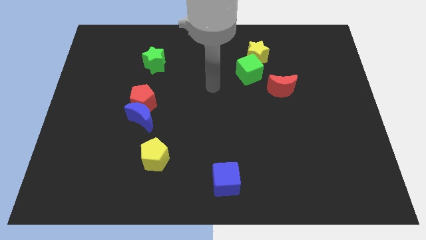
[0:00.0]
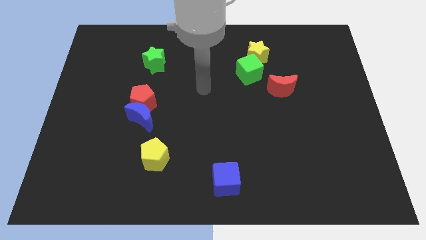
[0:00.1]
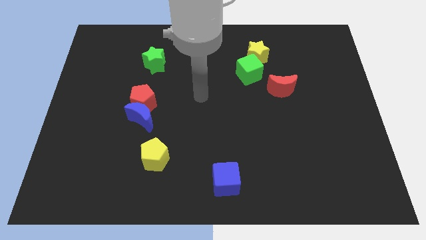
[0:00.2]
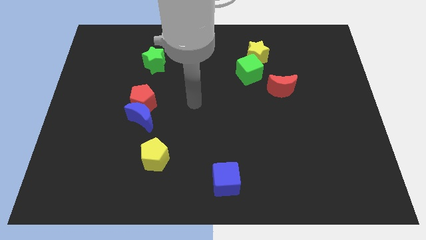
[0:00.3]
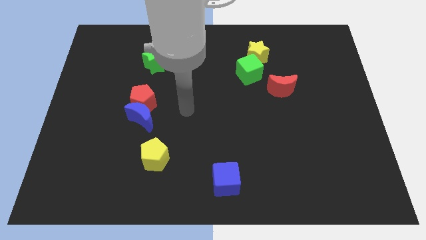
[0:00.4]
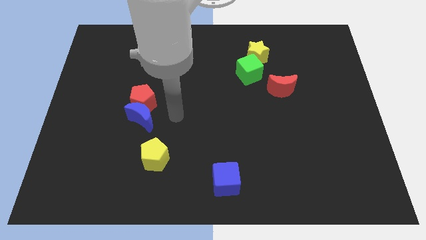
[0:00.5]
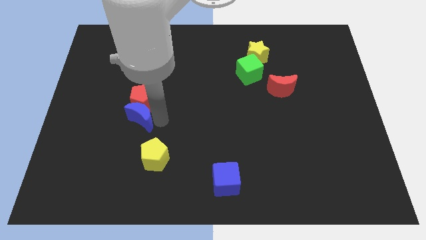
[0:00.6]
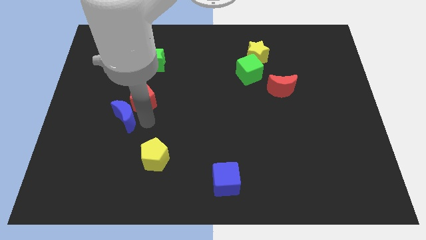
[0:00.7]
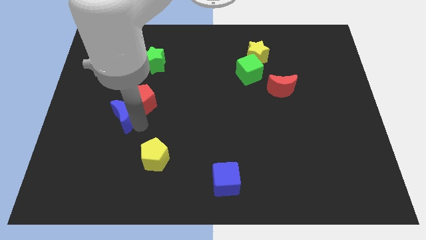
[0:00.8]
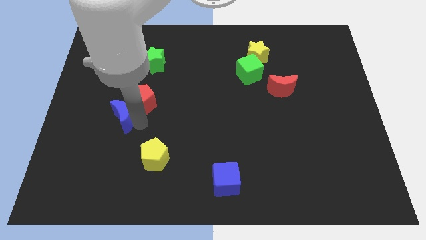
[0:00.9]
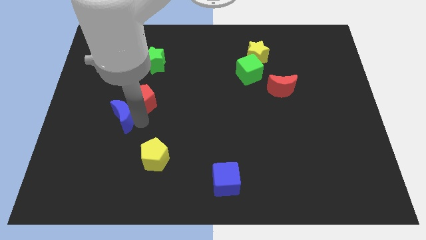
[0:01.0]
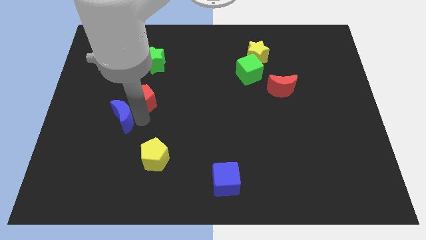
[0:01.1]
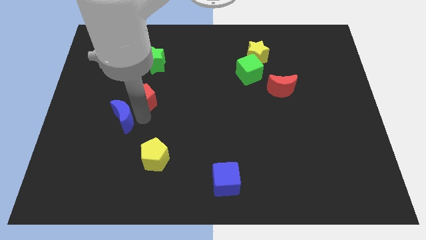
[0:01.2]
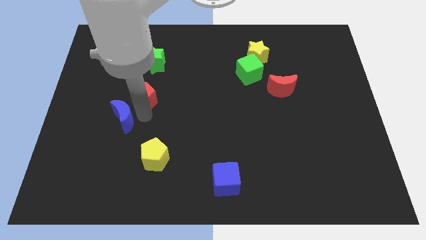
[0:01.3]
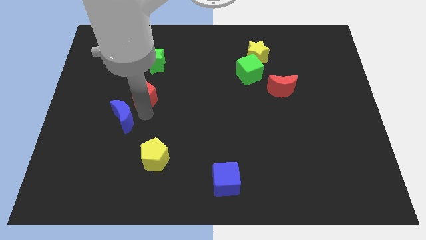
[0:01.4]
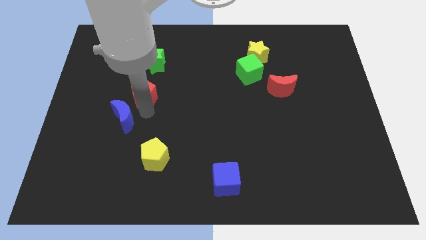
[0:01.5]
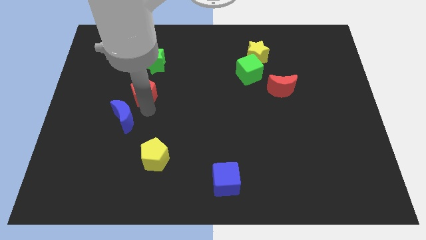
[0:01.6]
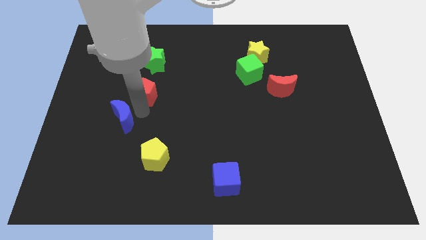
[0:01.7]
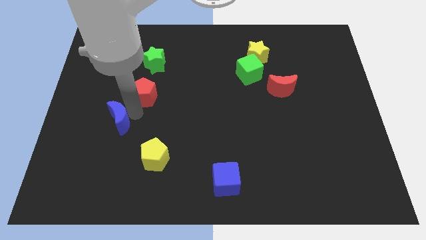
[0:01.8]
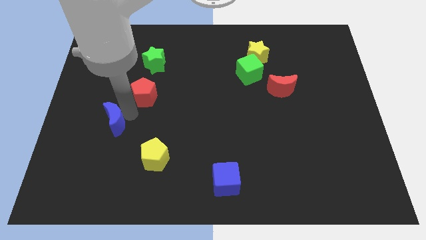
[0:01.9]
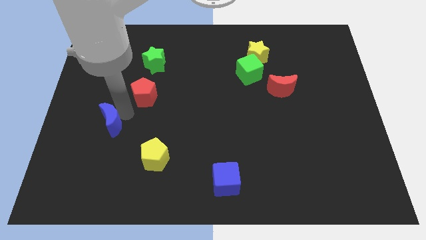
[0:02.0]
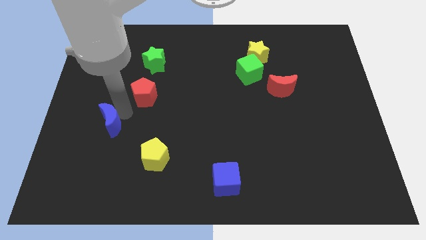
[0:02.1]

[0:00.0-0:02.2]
separate the red pentagon from the blue moon

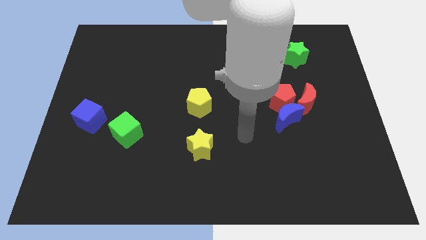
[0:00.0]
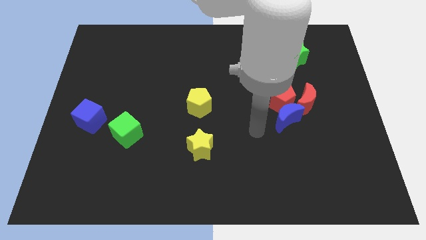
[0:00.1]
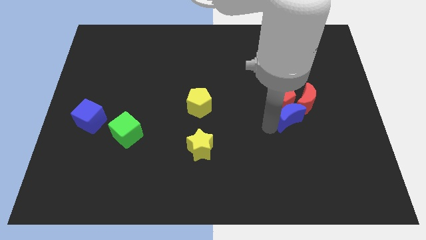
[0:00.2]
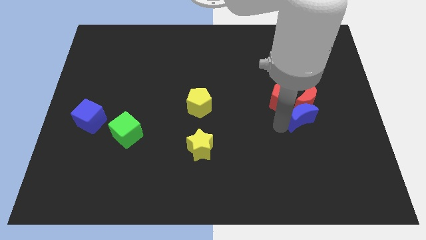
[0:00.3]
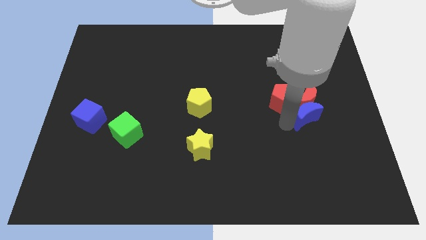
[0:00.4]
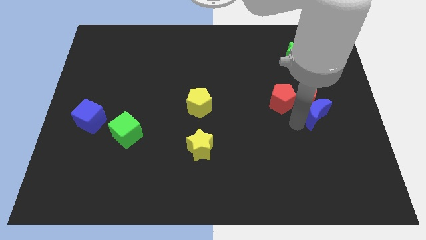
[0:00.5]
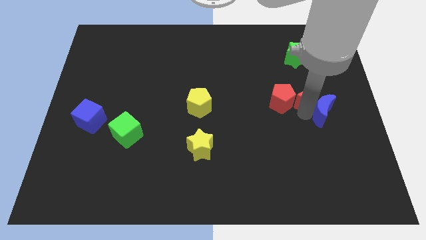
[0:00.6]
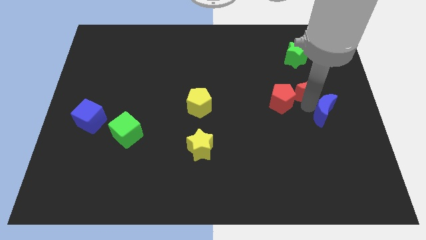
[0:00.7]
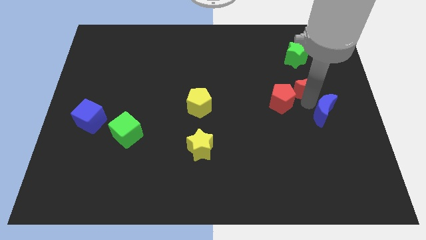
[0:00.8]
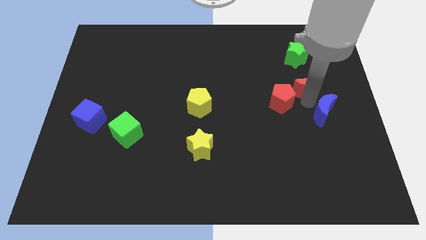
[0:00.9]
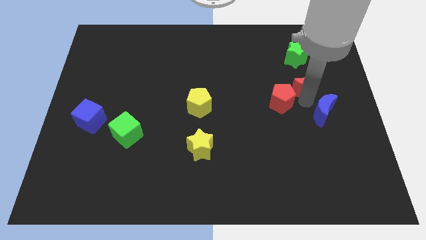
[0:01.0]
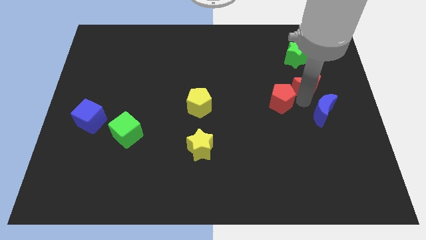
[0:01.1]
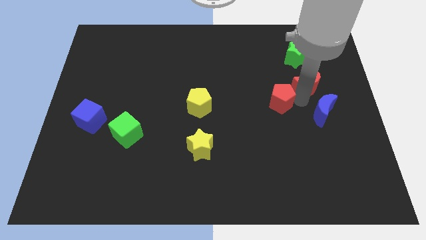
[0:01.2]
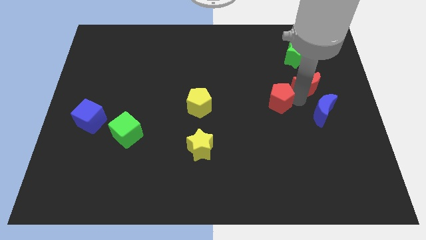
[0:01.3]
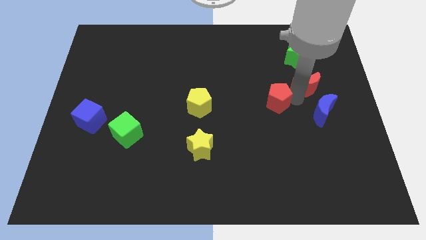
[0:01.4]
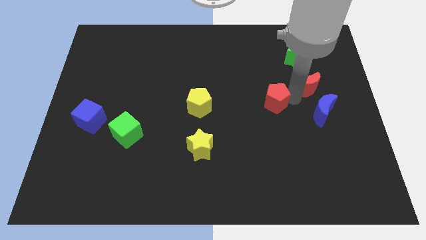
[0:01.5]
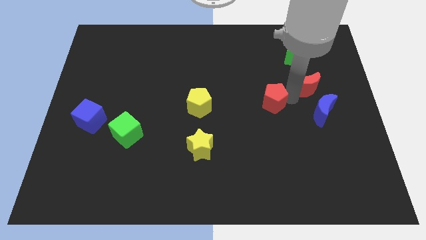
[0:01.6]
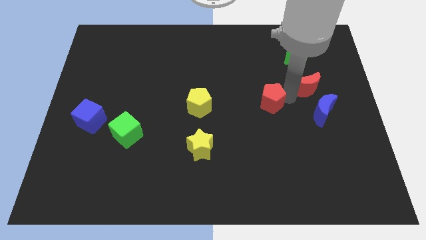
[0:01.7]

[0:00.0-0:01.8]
pull the red pentagon apart from the blue moon and red moon

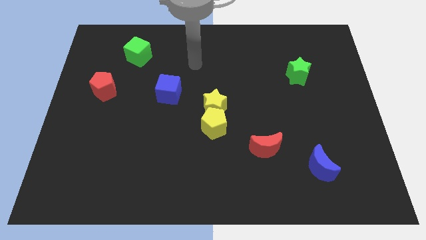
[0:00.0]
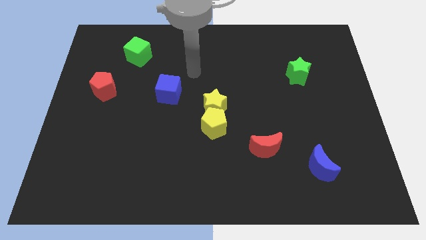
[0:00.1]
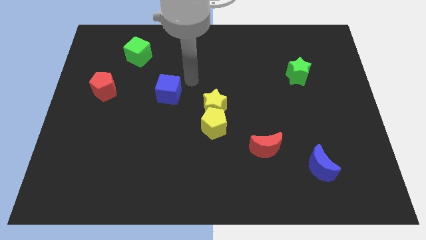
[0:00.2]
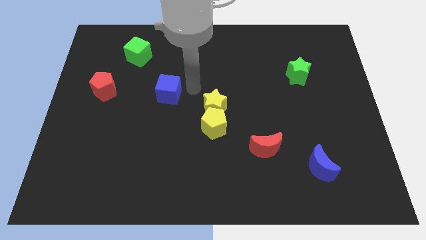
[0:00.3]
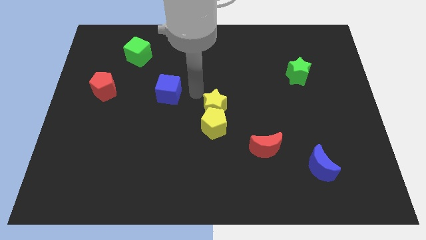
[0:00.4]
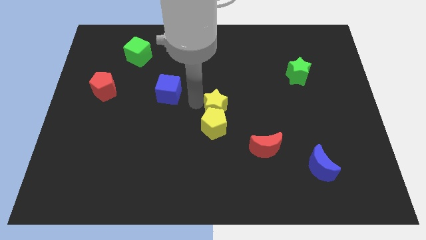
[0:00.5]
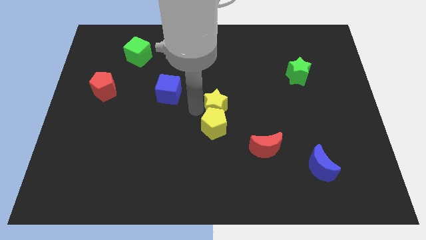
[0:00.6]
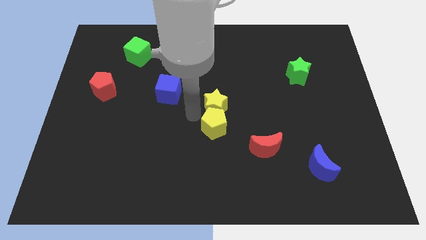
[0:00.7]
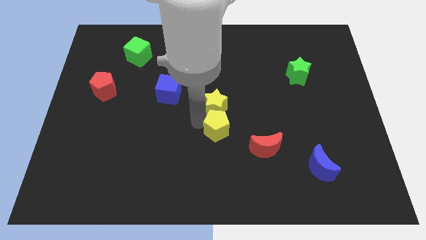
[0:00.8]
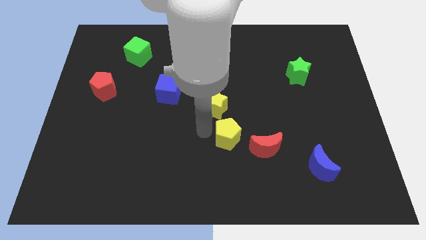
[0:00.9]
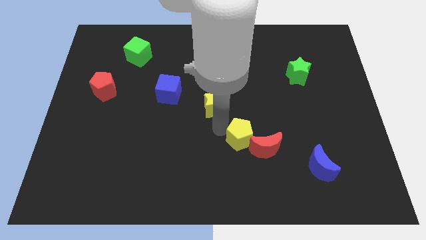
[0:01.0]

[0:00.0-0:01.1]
move the yellow star away from the yellow pentagon

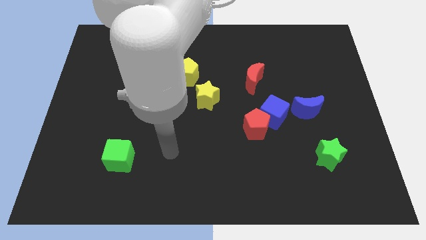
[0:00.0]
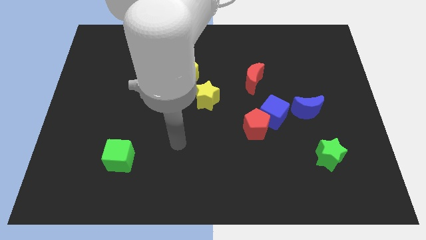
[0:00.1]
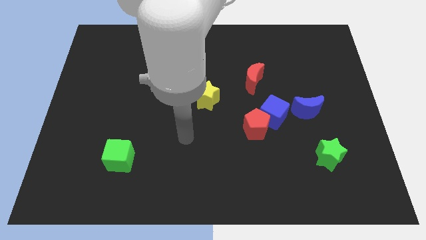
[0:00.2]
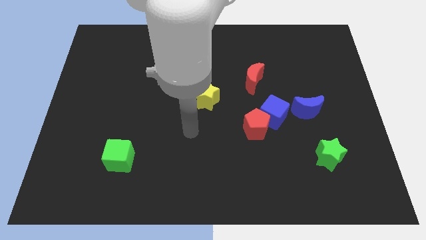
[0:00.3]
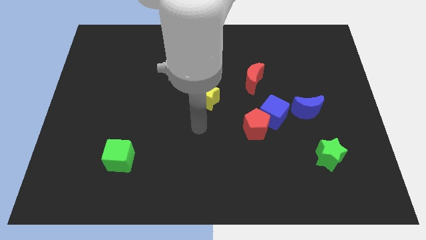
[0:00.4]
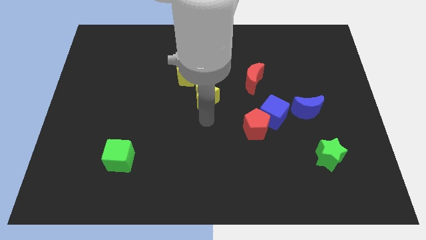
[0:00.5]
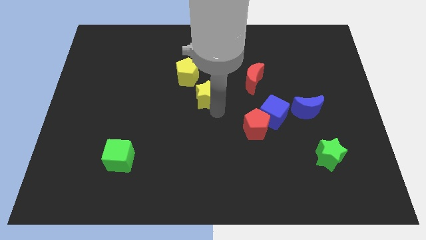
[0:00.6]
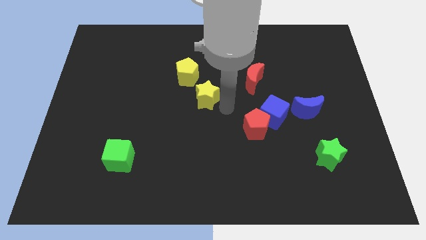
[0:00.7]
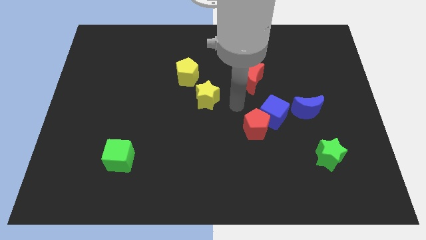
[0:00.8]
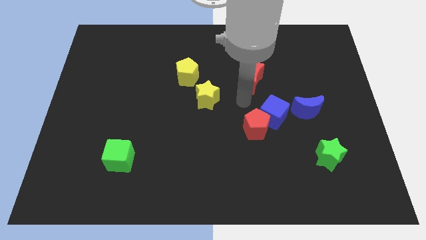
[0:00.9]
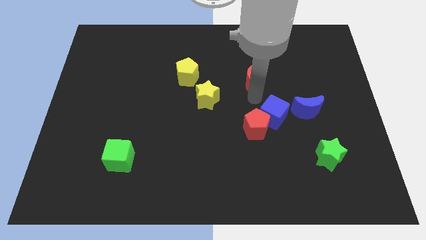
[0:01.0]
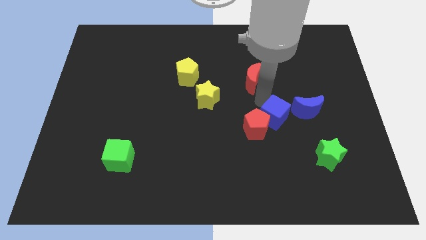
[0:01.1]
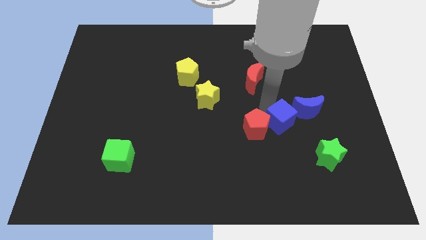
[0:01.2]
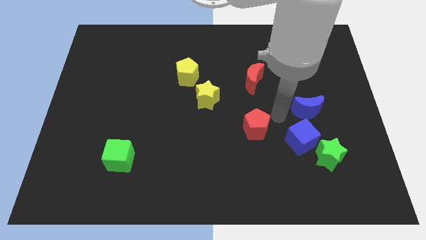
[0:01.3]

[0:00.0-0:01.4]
pull the red pentagon apart from the blue cube

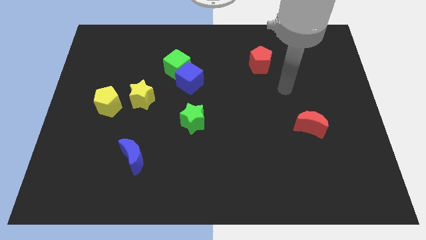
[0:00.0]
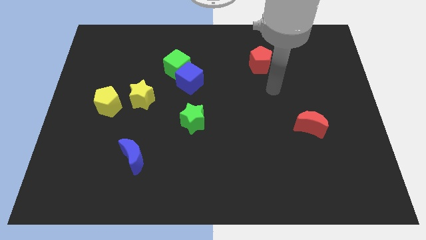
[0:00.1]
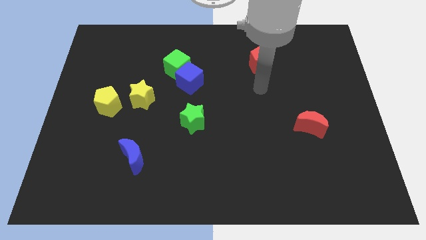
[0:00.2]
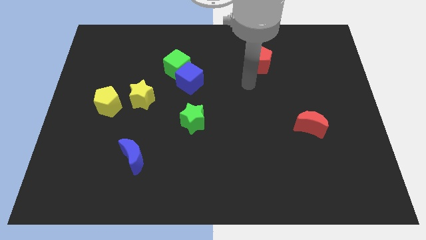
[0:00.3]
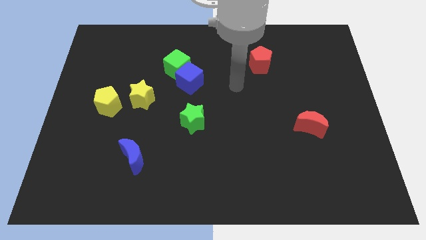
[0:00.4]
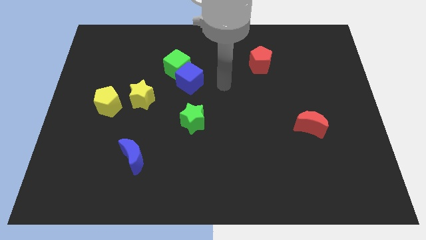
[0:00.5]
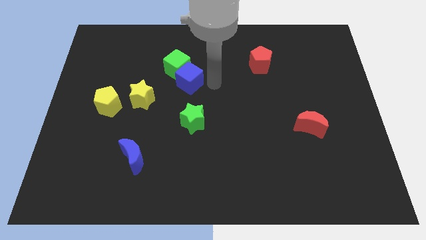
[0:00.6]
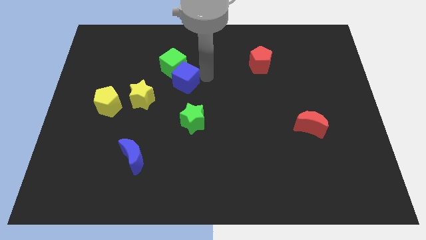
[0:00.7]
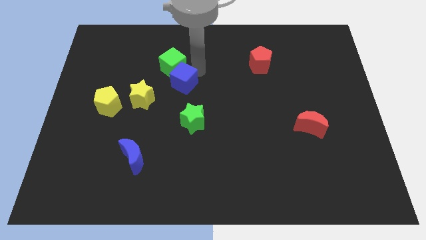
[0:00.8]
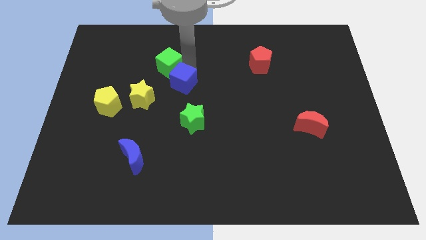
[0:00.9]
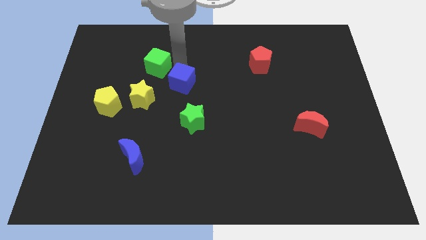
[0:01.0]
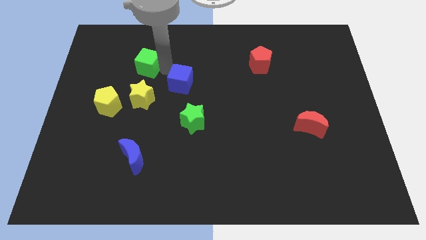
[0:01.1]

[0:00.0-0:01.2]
move the blue cube away from the green cube

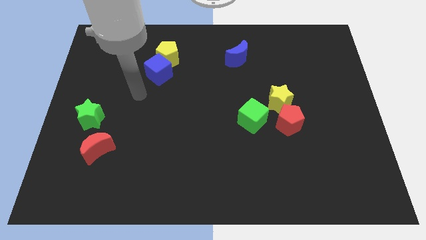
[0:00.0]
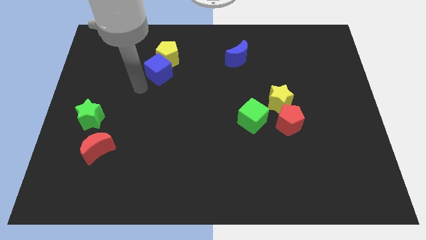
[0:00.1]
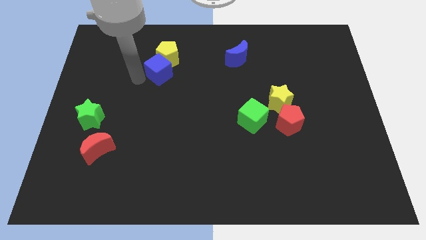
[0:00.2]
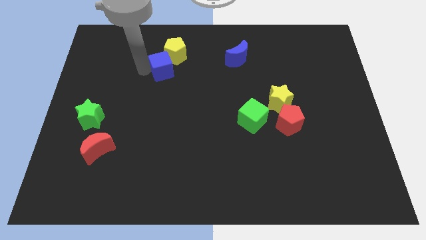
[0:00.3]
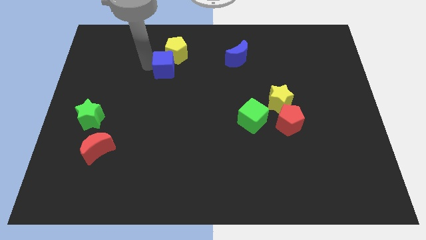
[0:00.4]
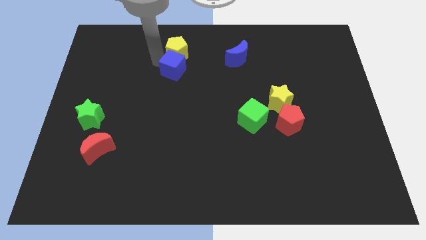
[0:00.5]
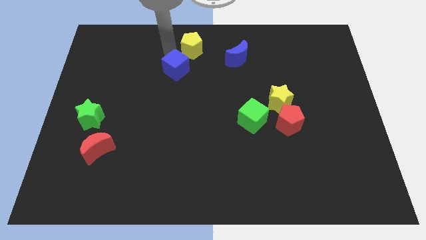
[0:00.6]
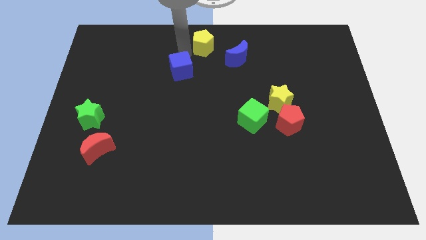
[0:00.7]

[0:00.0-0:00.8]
separate the blue cube from the yellow pentagon

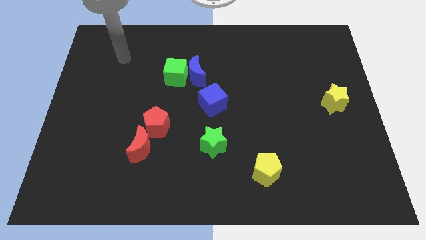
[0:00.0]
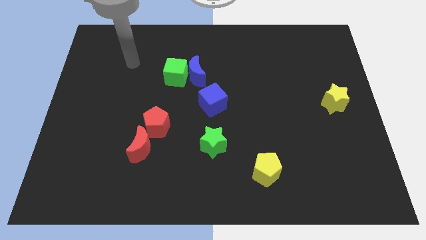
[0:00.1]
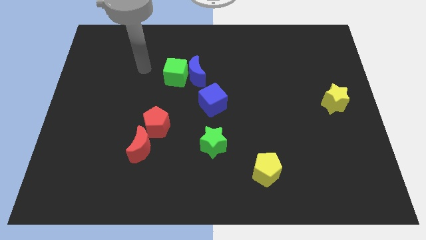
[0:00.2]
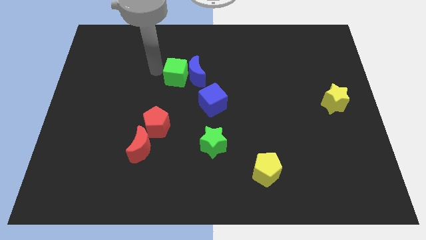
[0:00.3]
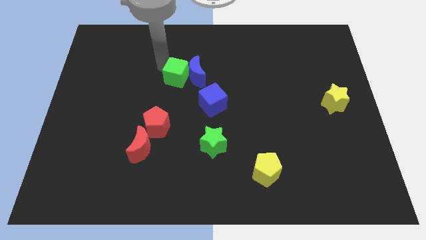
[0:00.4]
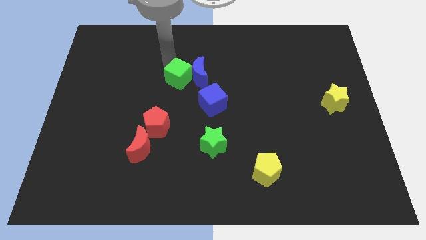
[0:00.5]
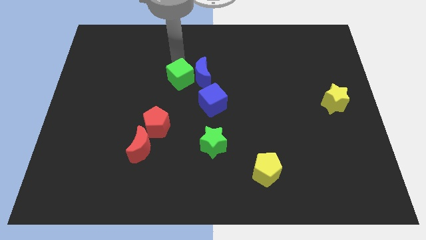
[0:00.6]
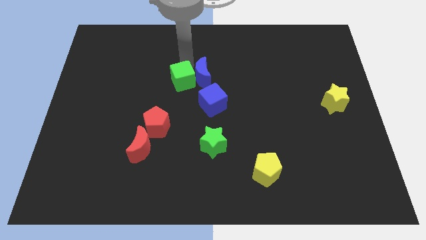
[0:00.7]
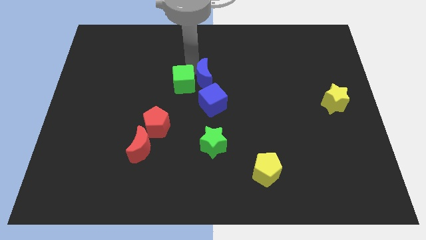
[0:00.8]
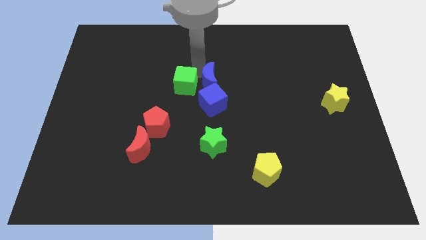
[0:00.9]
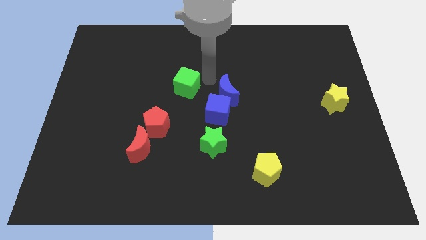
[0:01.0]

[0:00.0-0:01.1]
move the green cube away from the blue moon
